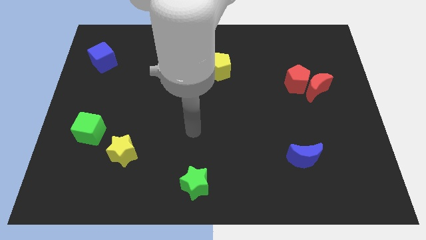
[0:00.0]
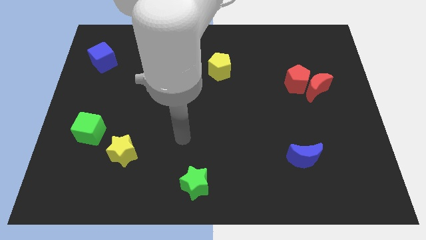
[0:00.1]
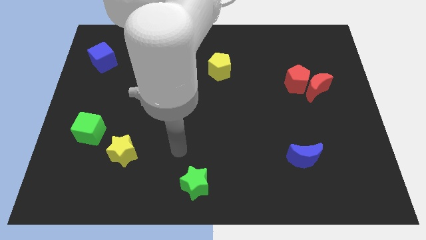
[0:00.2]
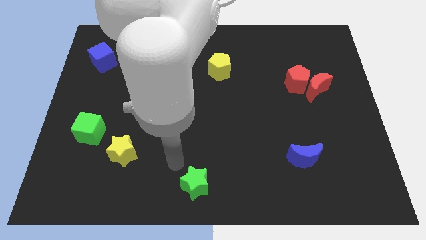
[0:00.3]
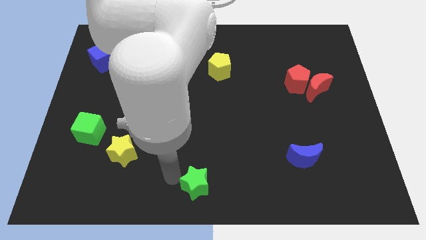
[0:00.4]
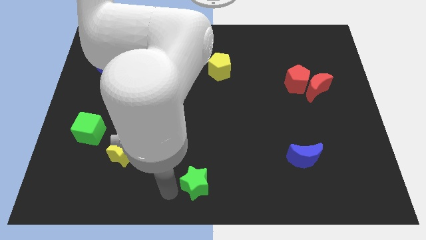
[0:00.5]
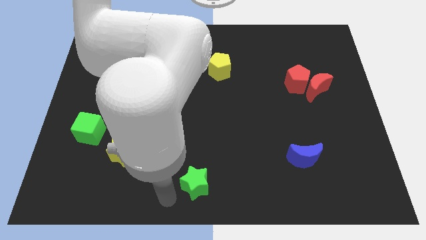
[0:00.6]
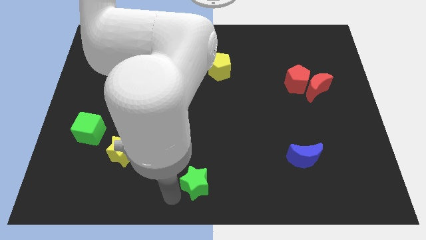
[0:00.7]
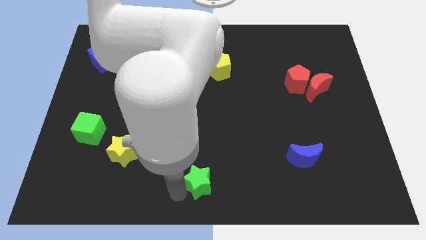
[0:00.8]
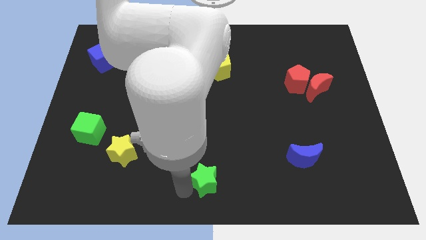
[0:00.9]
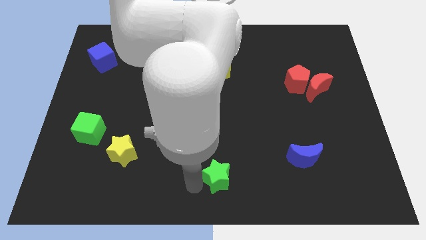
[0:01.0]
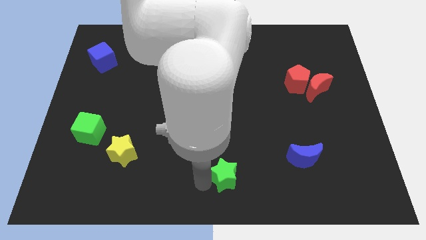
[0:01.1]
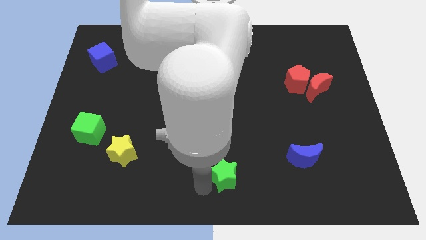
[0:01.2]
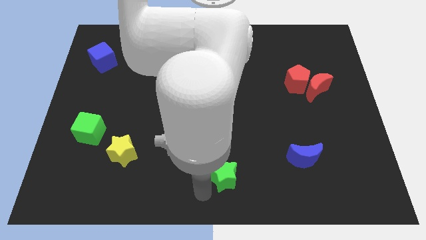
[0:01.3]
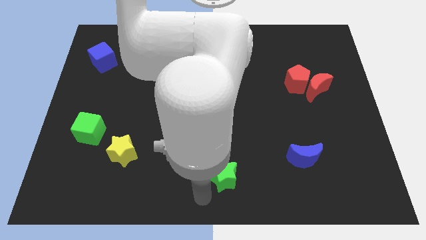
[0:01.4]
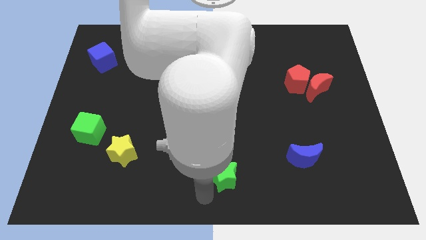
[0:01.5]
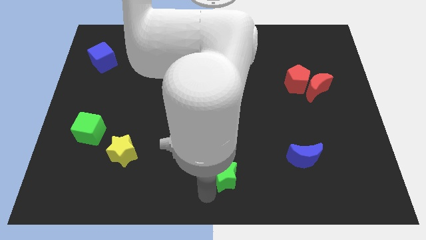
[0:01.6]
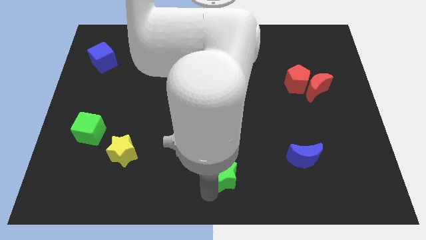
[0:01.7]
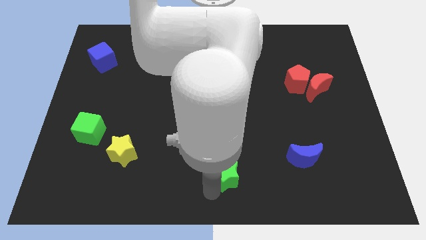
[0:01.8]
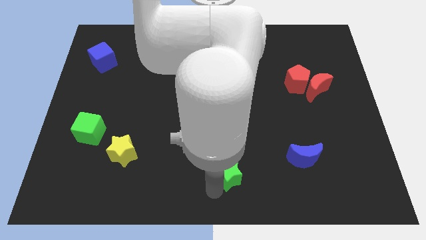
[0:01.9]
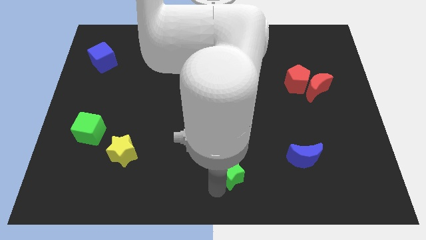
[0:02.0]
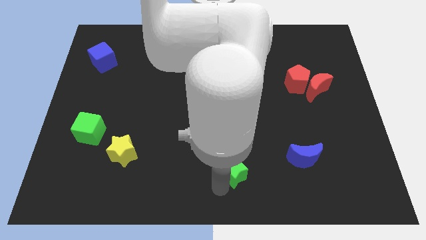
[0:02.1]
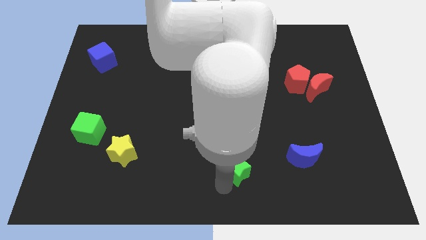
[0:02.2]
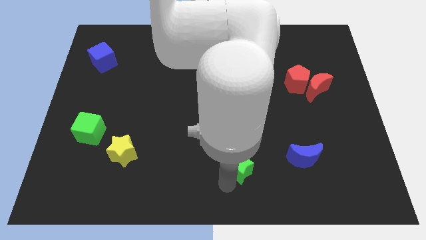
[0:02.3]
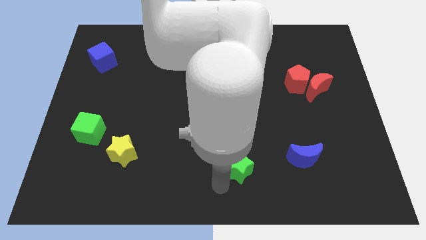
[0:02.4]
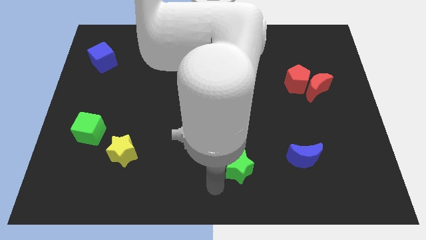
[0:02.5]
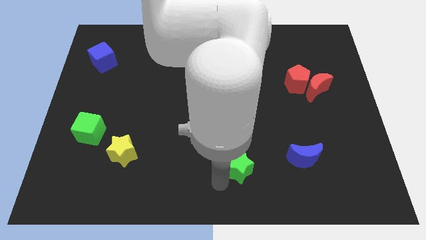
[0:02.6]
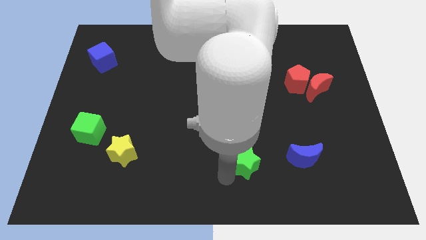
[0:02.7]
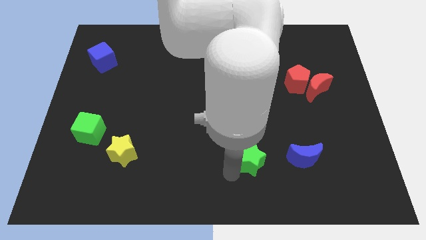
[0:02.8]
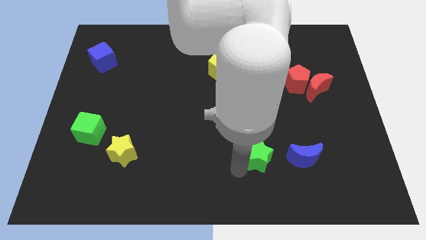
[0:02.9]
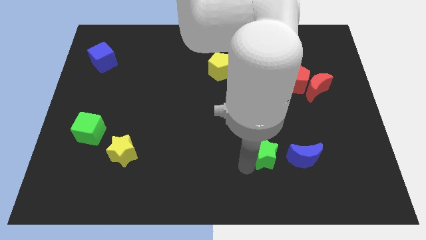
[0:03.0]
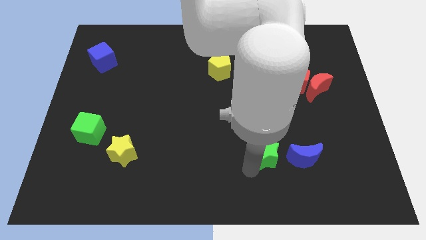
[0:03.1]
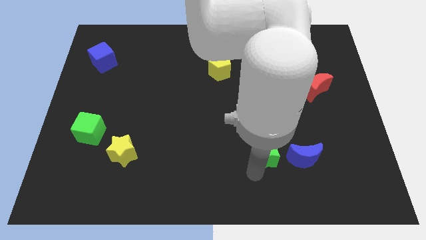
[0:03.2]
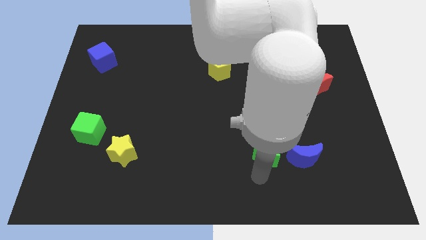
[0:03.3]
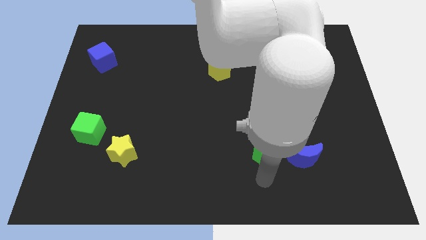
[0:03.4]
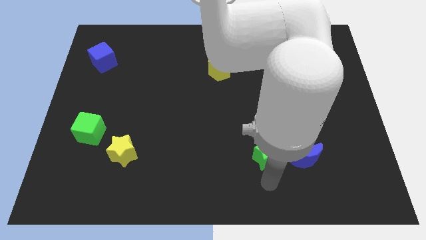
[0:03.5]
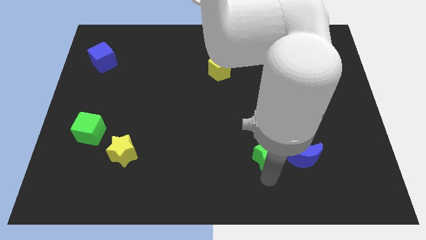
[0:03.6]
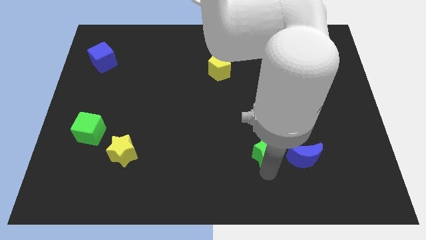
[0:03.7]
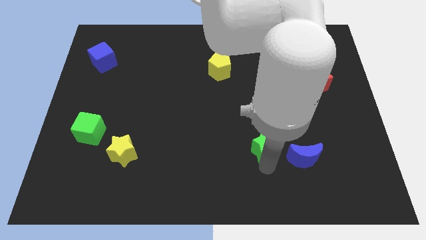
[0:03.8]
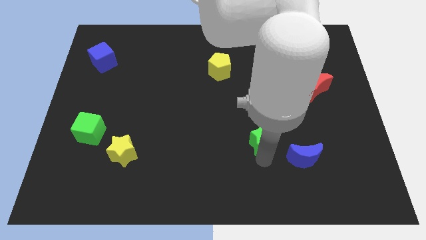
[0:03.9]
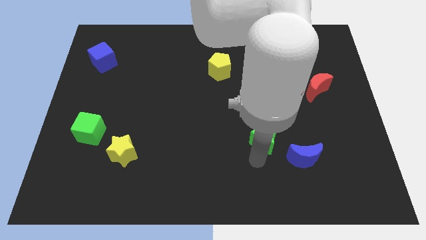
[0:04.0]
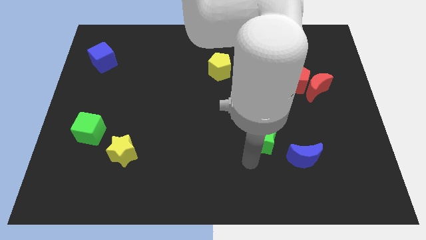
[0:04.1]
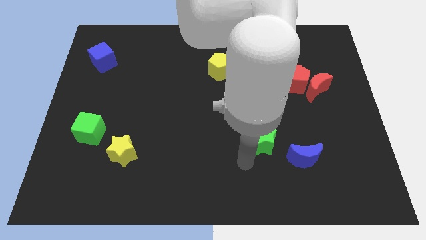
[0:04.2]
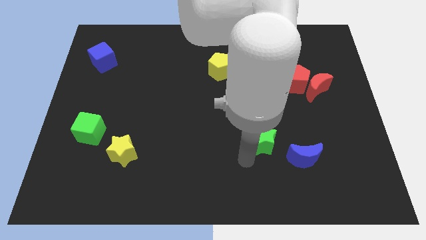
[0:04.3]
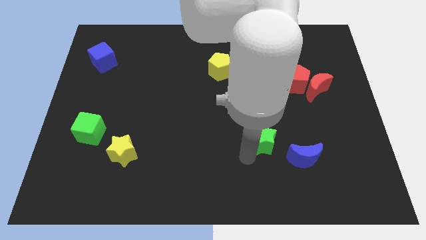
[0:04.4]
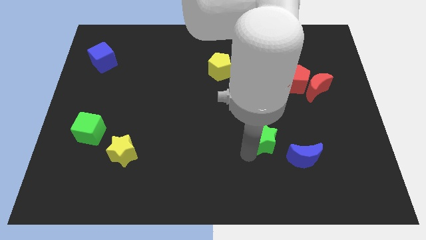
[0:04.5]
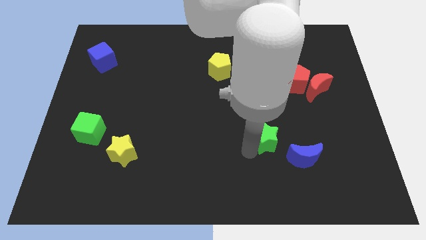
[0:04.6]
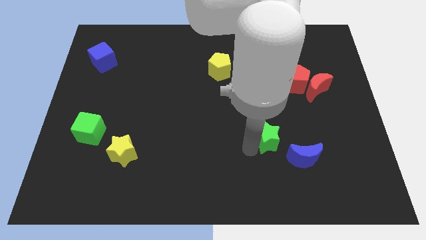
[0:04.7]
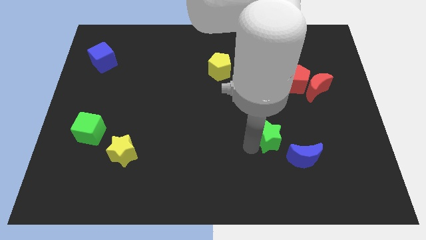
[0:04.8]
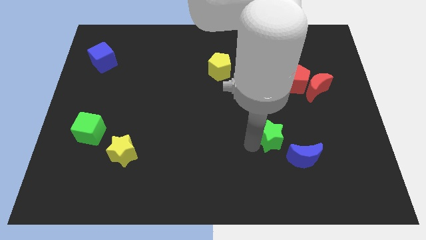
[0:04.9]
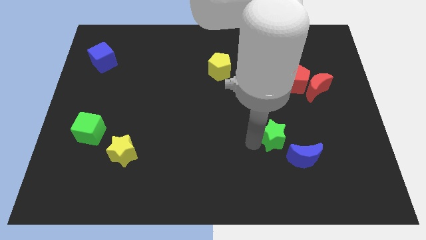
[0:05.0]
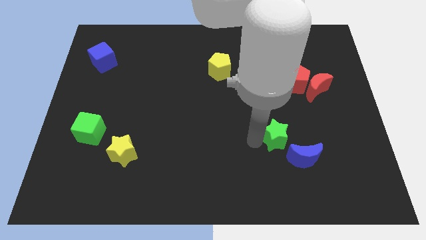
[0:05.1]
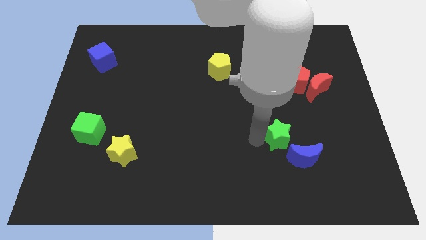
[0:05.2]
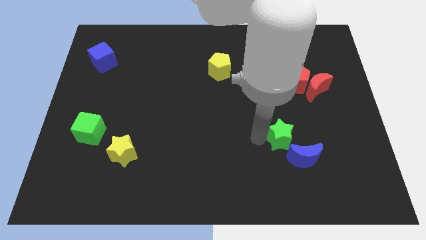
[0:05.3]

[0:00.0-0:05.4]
push the green star up and right

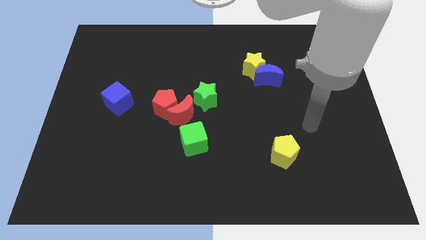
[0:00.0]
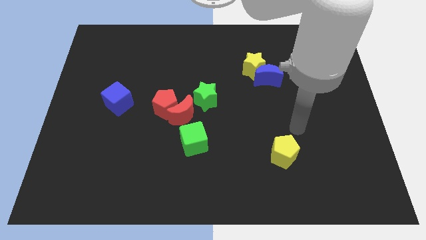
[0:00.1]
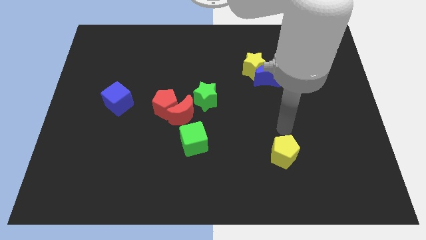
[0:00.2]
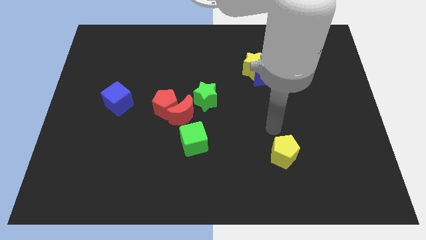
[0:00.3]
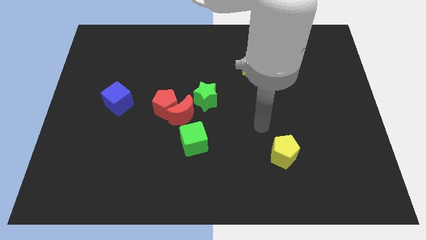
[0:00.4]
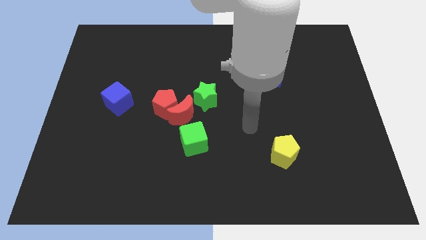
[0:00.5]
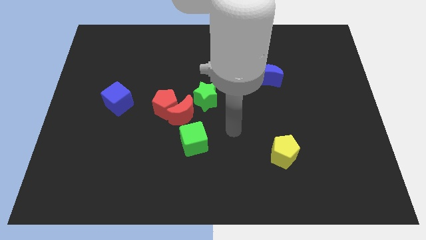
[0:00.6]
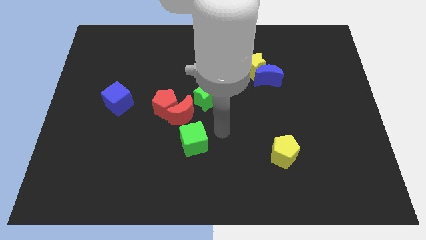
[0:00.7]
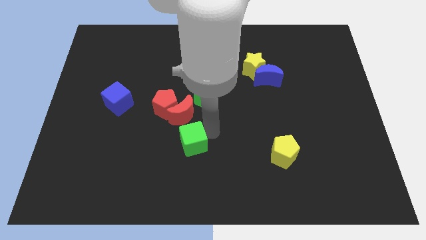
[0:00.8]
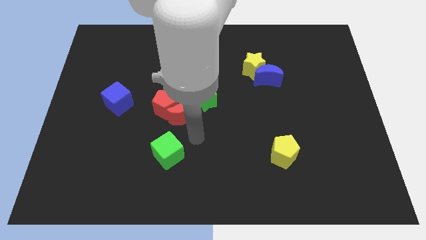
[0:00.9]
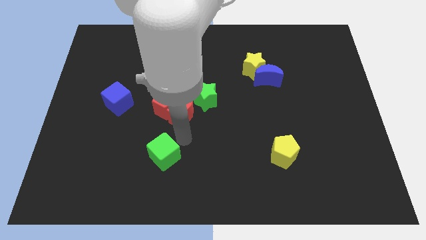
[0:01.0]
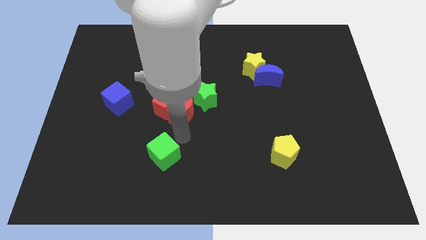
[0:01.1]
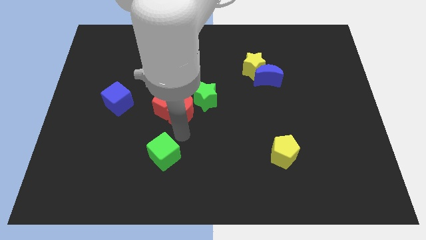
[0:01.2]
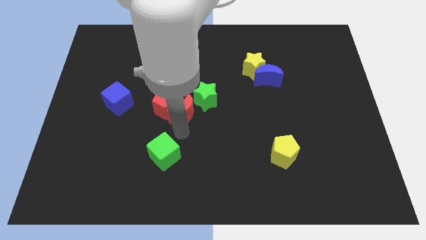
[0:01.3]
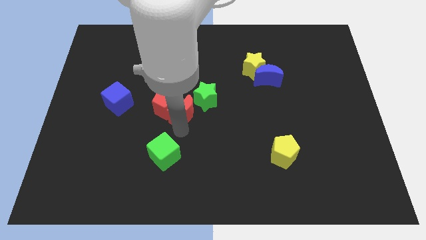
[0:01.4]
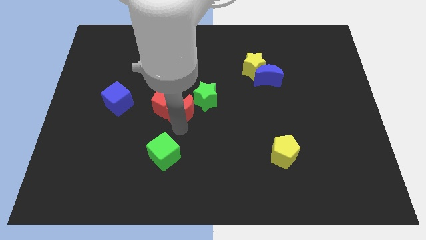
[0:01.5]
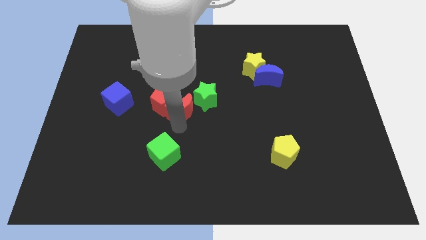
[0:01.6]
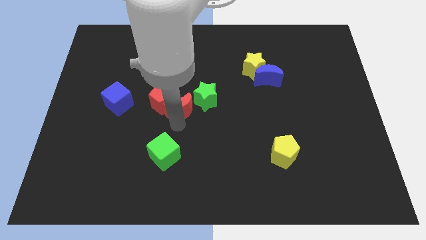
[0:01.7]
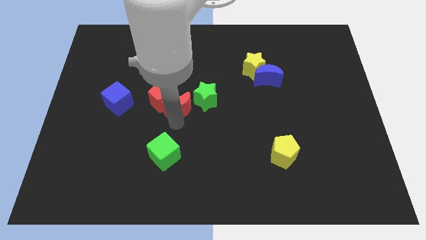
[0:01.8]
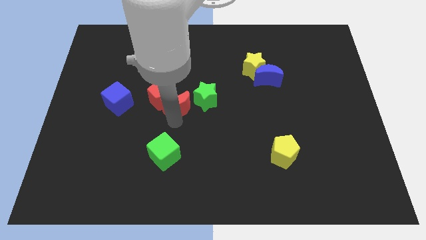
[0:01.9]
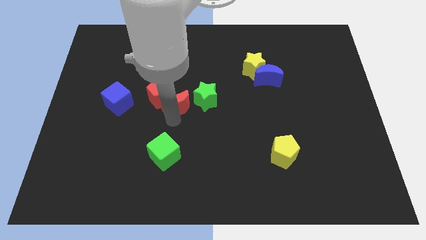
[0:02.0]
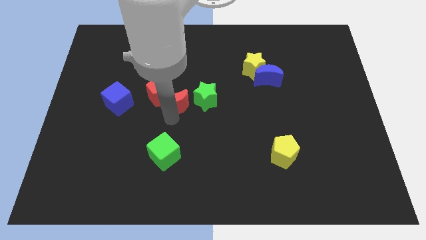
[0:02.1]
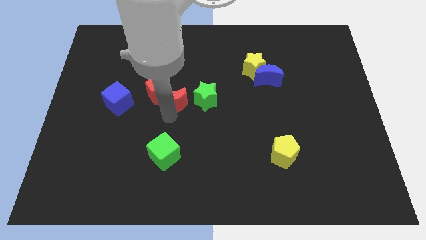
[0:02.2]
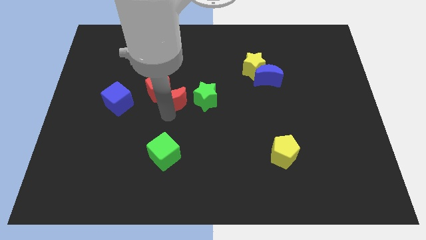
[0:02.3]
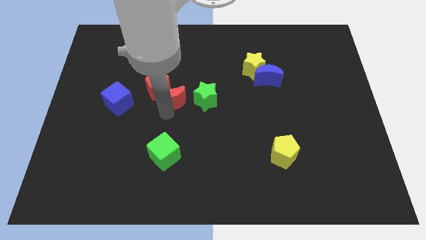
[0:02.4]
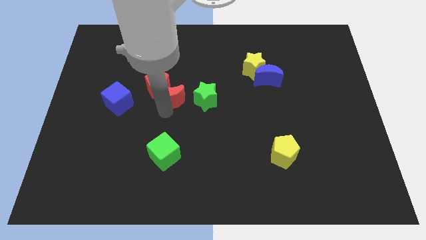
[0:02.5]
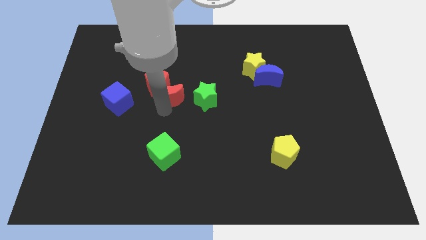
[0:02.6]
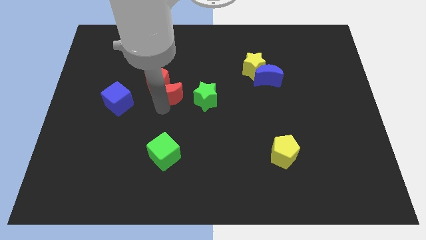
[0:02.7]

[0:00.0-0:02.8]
slide the red moon somewhat upwards and to the left
